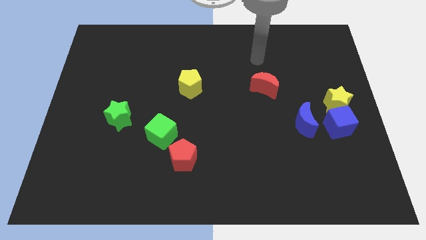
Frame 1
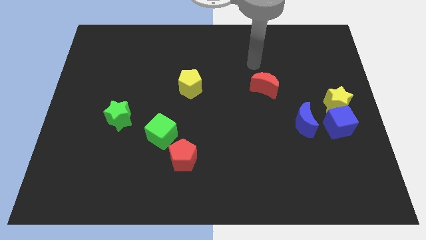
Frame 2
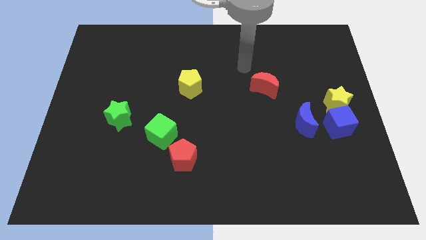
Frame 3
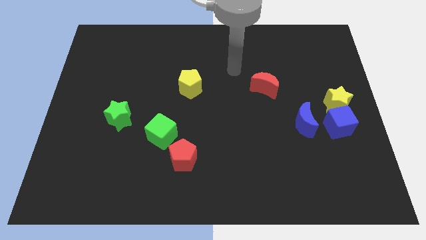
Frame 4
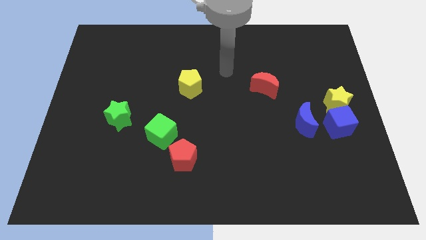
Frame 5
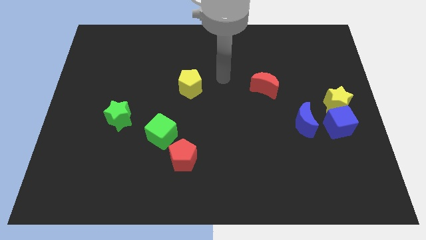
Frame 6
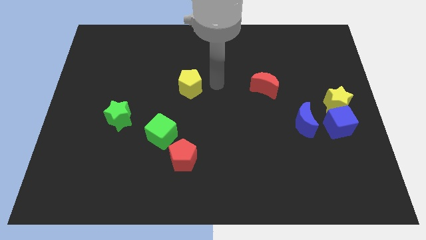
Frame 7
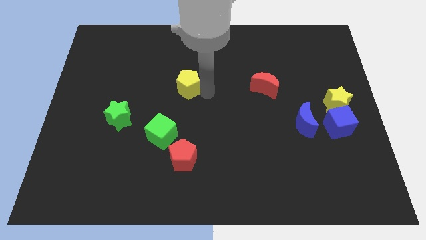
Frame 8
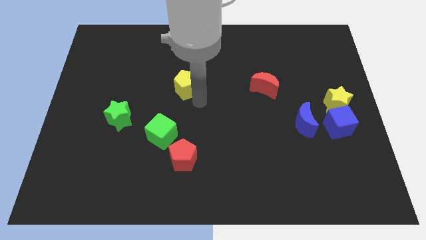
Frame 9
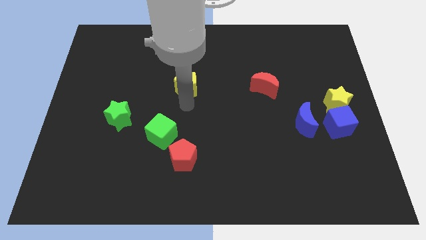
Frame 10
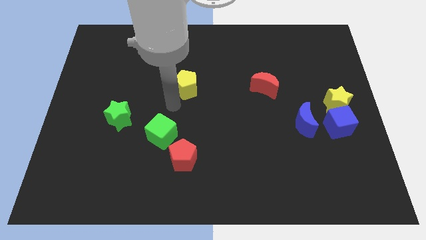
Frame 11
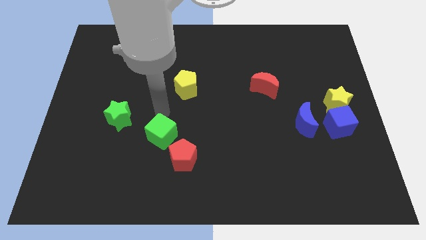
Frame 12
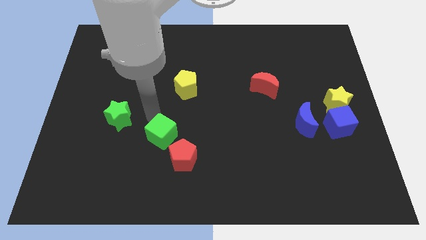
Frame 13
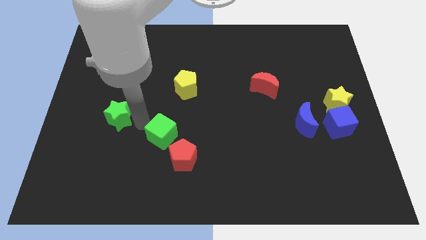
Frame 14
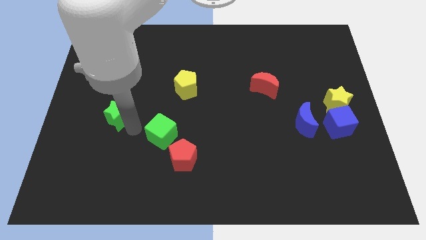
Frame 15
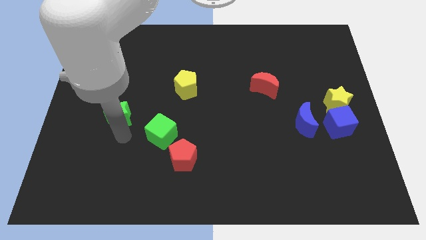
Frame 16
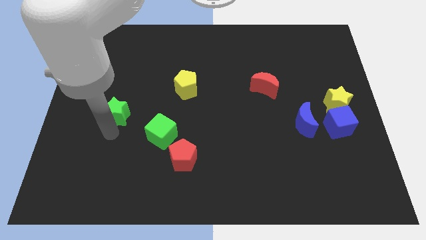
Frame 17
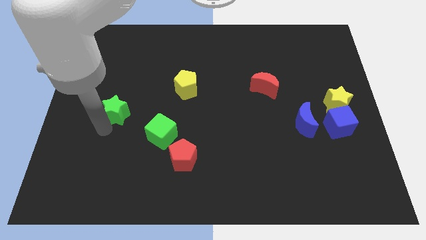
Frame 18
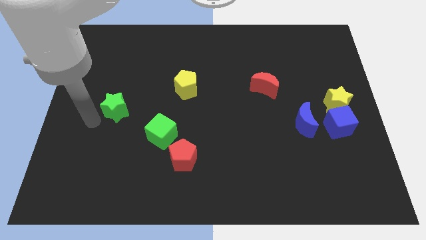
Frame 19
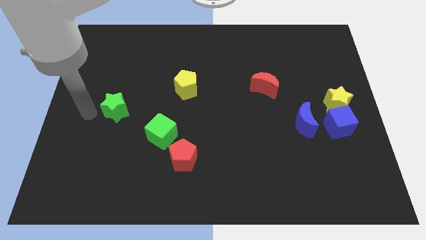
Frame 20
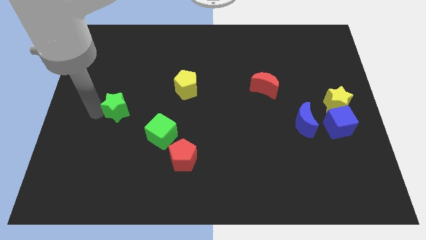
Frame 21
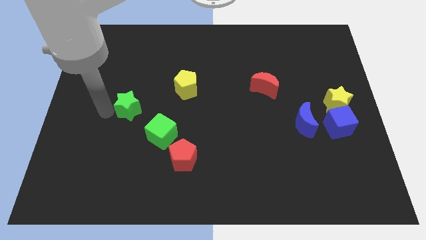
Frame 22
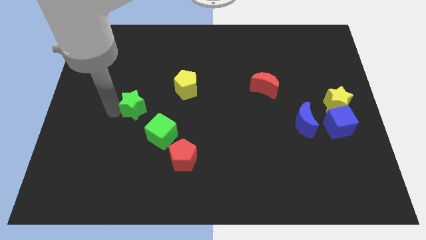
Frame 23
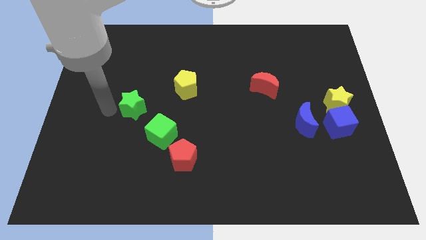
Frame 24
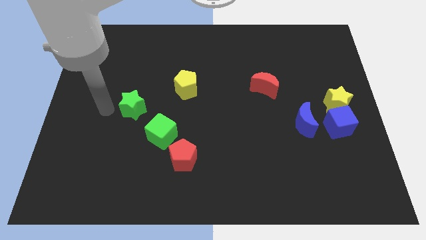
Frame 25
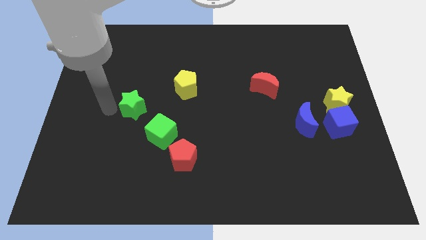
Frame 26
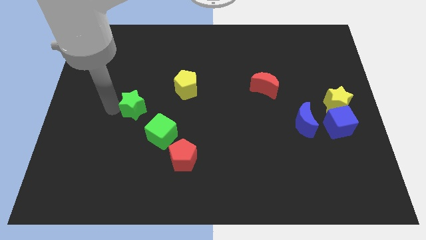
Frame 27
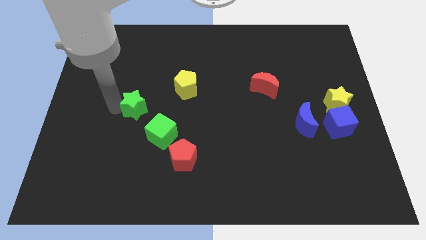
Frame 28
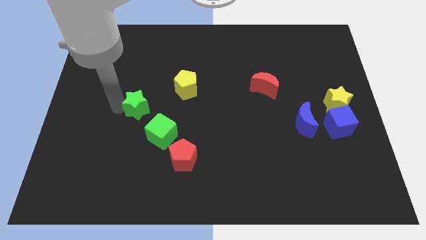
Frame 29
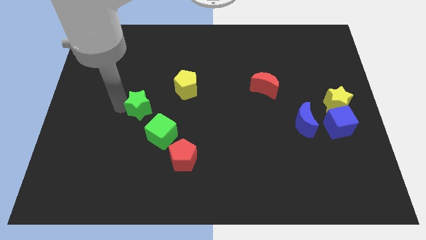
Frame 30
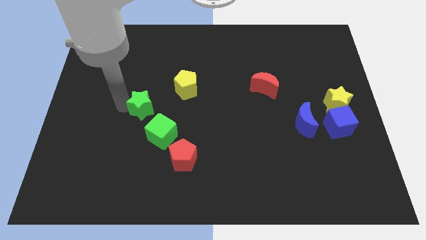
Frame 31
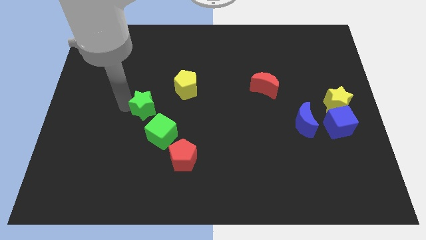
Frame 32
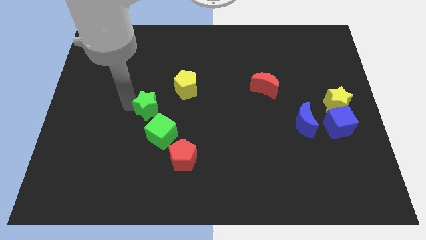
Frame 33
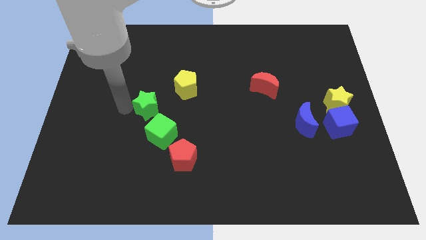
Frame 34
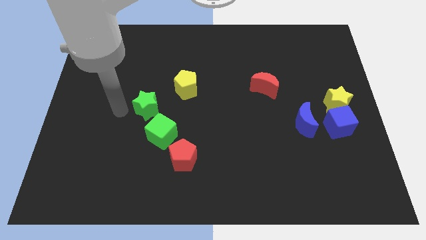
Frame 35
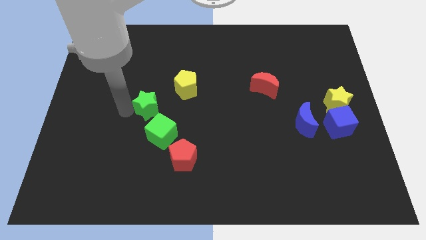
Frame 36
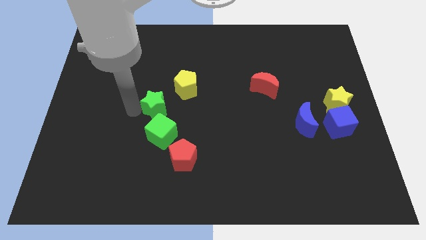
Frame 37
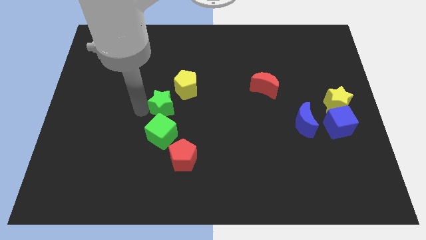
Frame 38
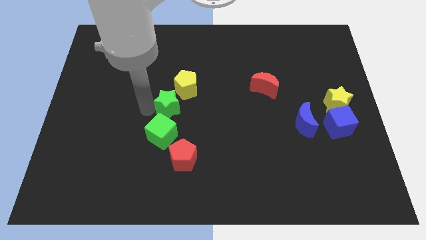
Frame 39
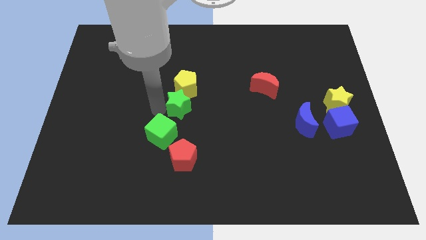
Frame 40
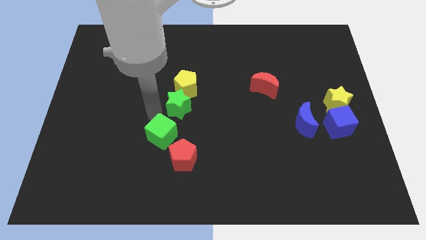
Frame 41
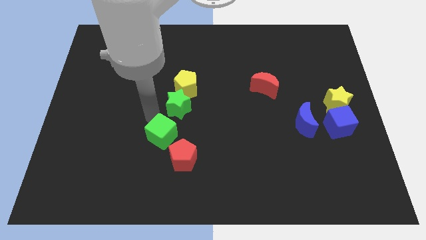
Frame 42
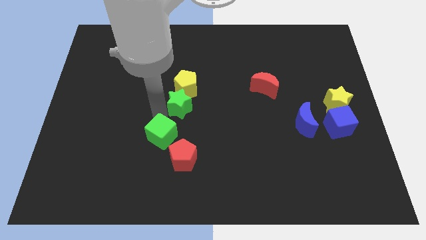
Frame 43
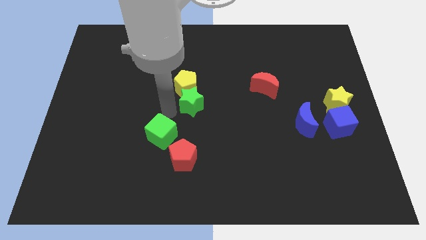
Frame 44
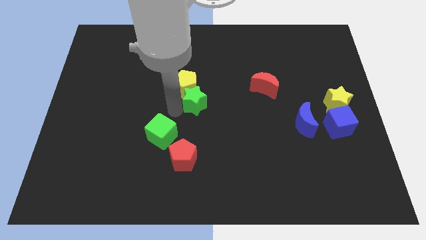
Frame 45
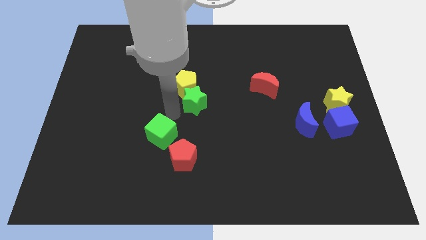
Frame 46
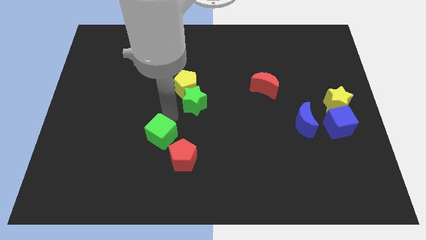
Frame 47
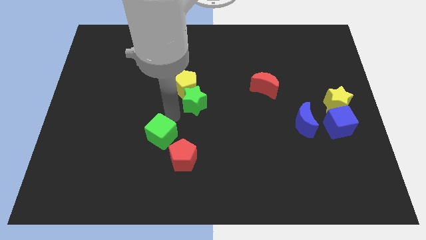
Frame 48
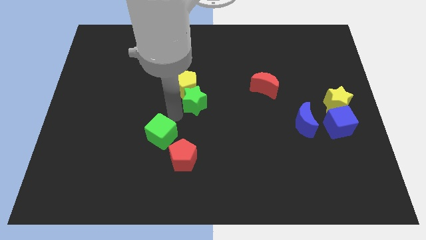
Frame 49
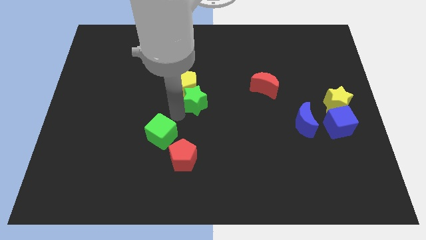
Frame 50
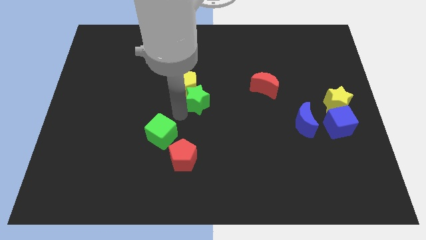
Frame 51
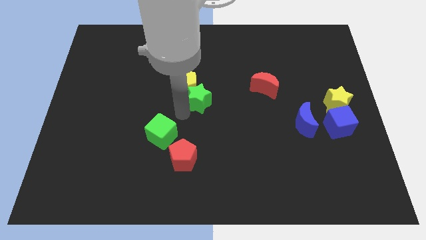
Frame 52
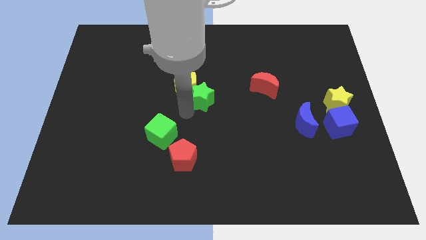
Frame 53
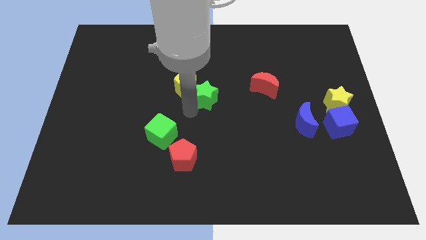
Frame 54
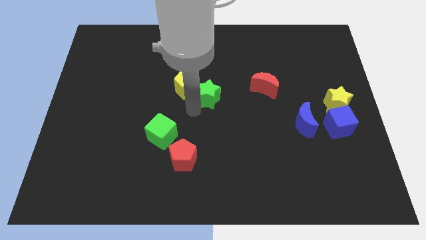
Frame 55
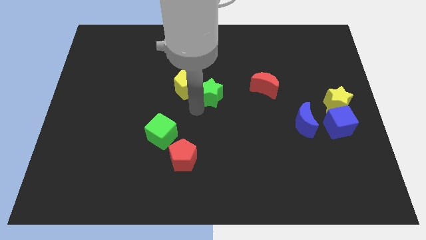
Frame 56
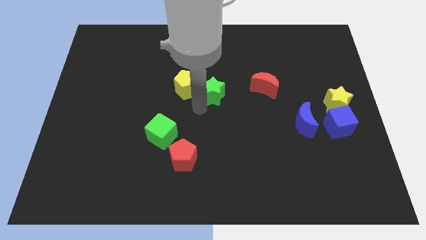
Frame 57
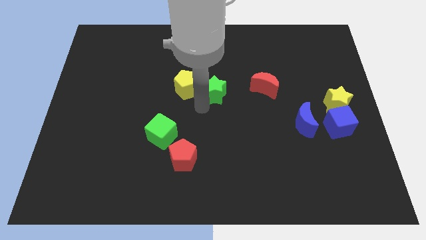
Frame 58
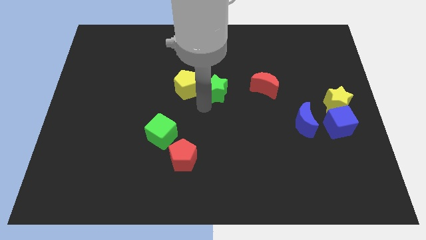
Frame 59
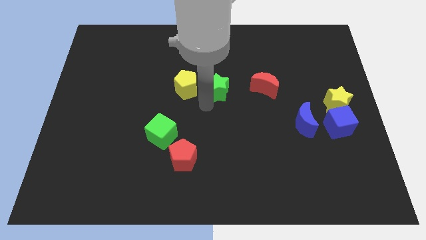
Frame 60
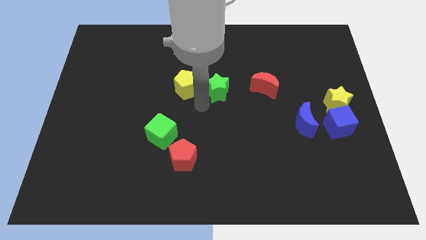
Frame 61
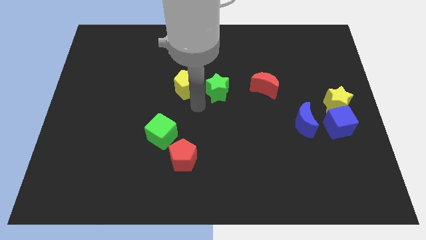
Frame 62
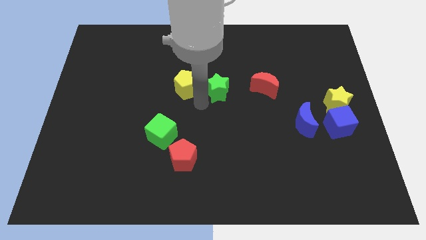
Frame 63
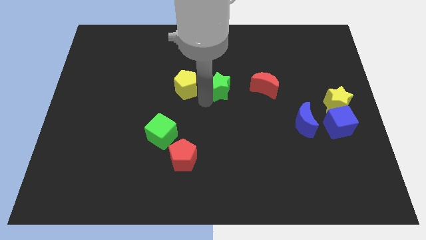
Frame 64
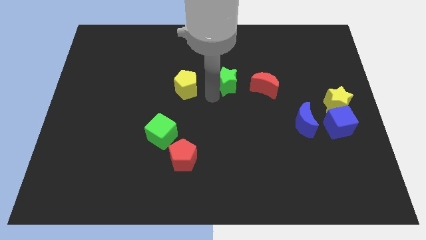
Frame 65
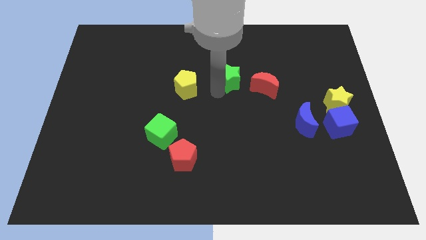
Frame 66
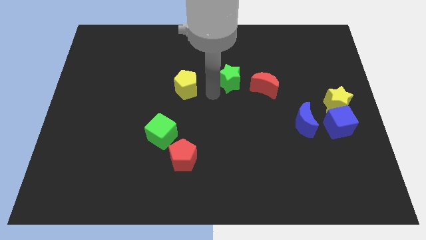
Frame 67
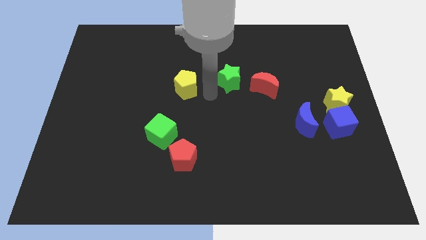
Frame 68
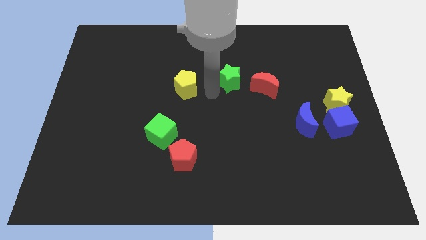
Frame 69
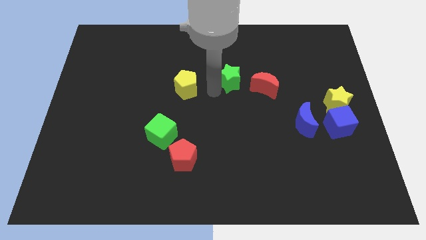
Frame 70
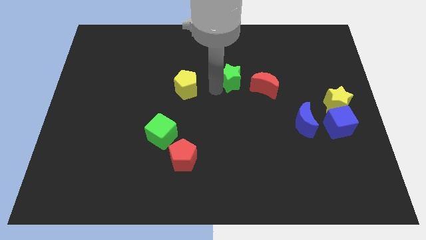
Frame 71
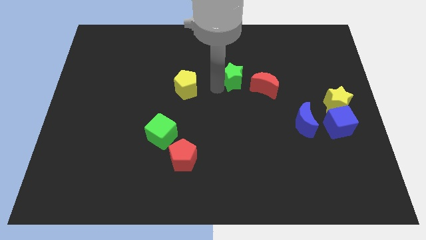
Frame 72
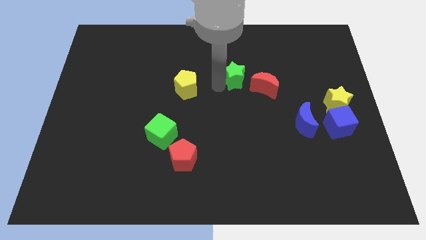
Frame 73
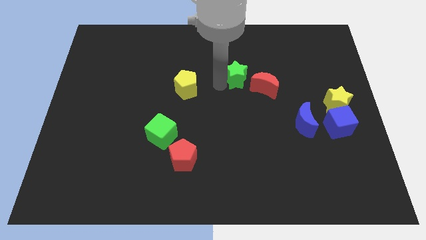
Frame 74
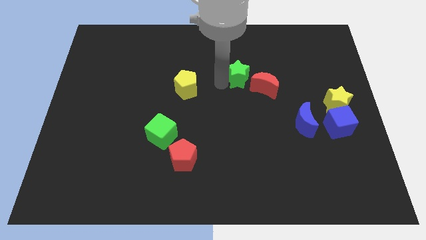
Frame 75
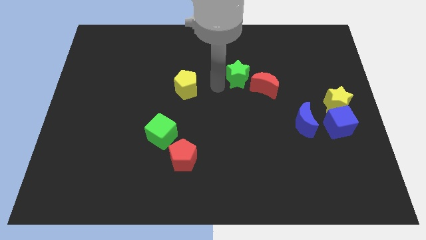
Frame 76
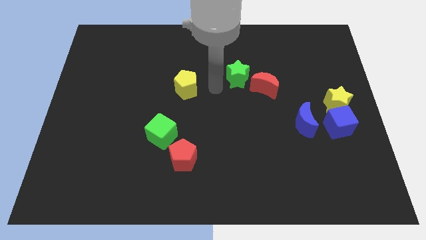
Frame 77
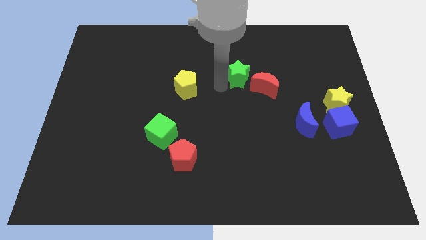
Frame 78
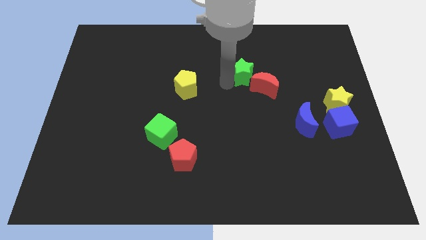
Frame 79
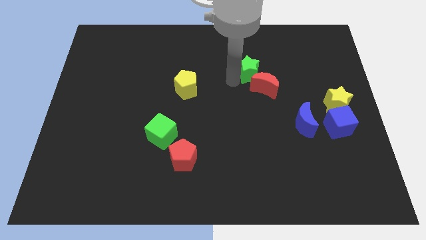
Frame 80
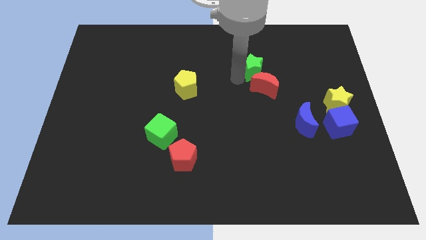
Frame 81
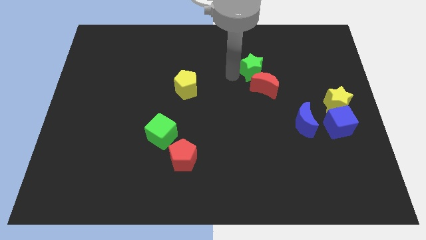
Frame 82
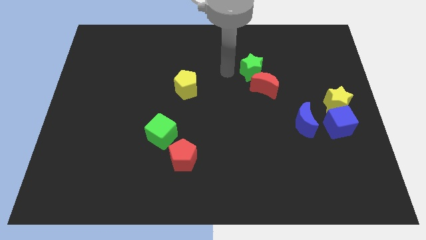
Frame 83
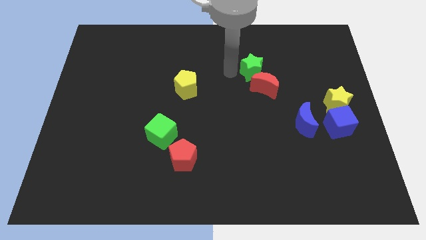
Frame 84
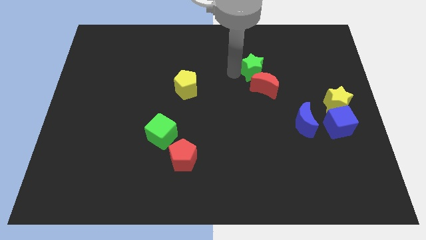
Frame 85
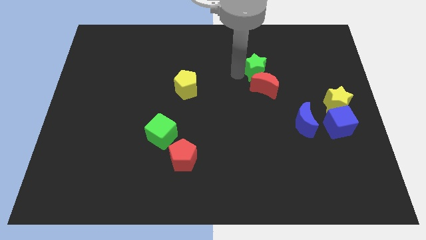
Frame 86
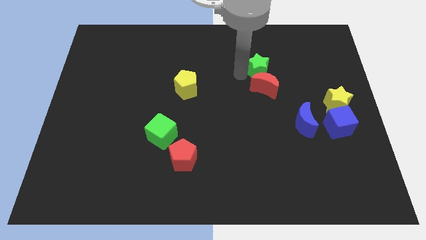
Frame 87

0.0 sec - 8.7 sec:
push the green star to the top right of the red moon
